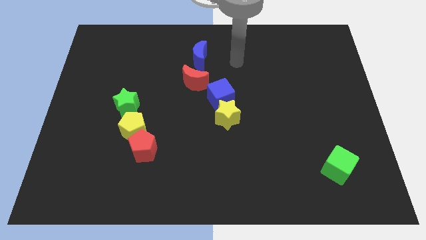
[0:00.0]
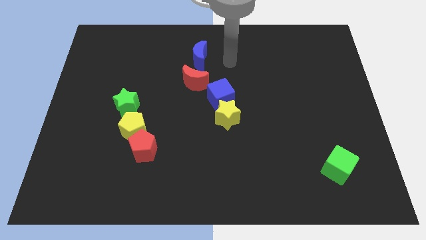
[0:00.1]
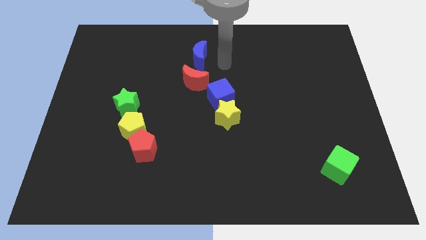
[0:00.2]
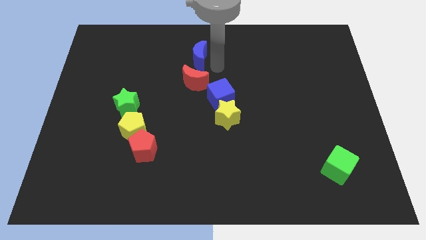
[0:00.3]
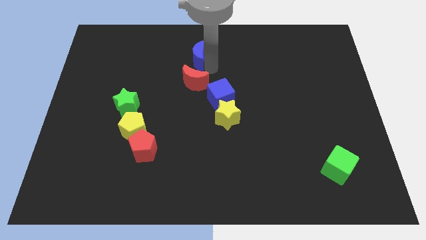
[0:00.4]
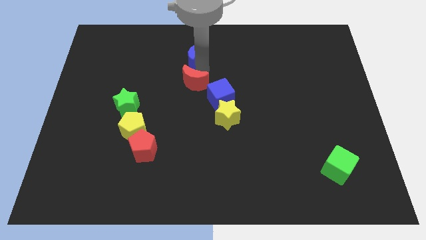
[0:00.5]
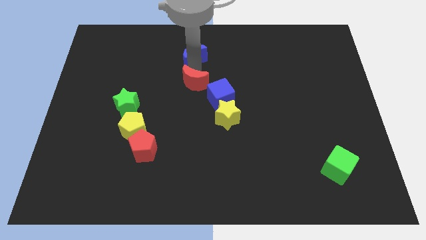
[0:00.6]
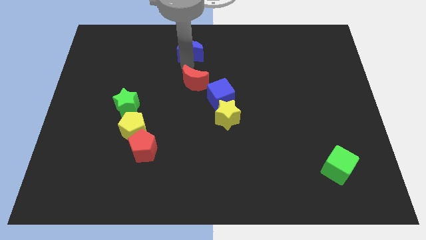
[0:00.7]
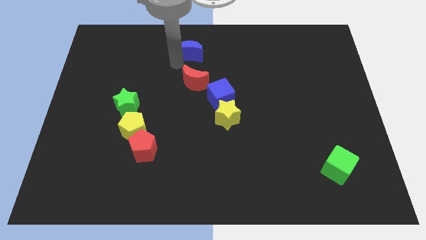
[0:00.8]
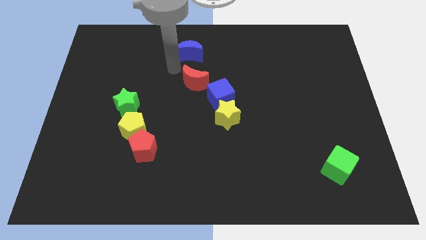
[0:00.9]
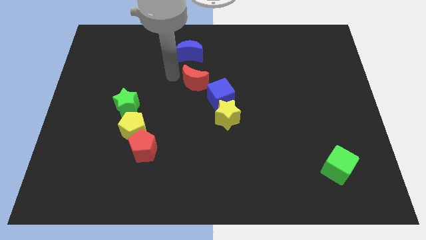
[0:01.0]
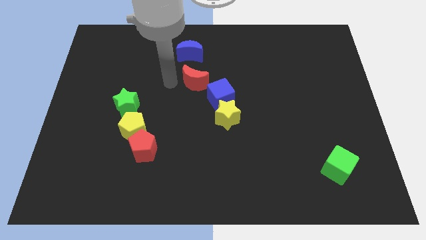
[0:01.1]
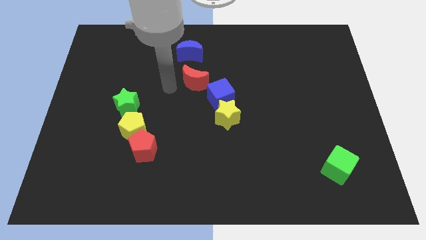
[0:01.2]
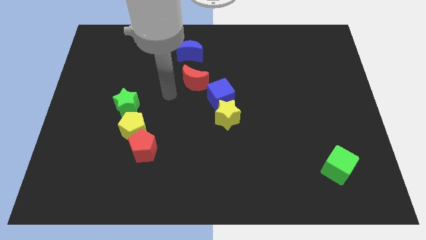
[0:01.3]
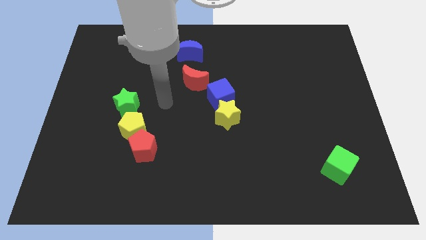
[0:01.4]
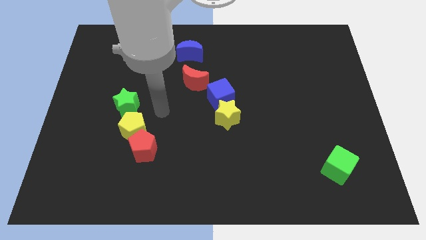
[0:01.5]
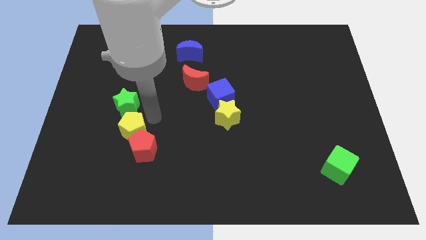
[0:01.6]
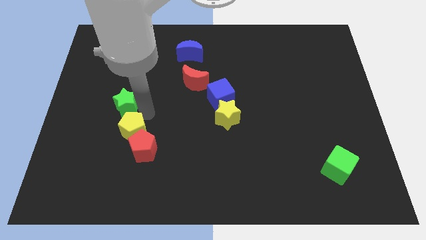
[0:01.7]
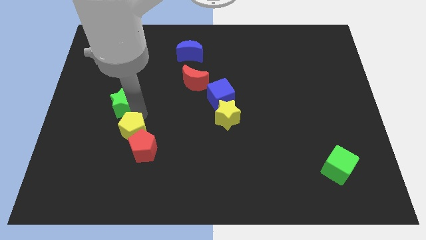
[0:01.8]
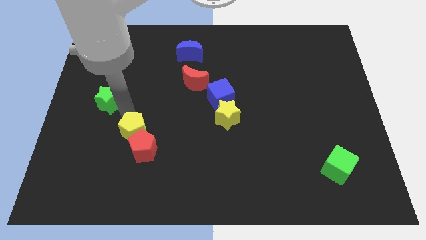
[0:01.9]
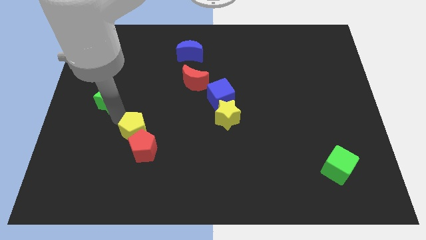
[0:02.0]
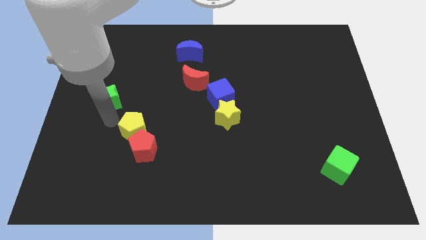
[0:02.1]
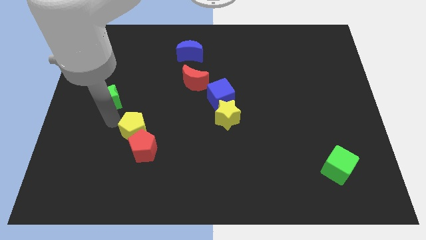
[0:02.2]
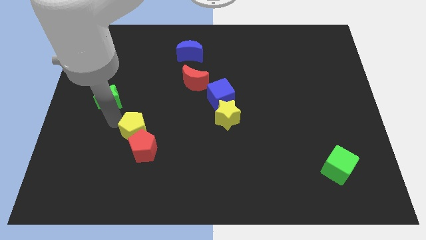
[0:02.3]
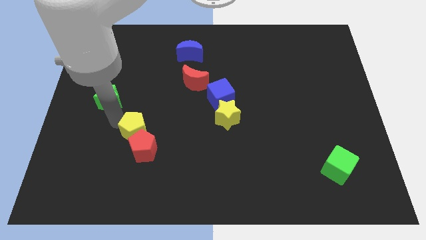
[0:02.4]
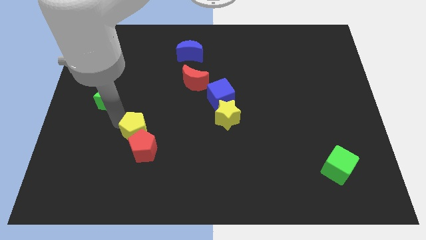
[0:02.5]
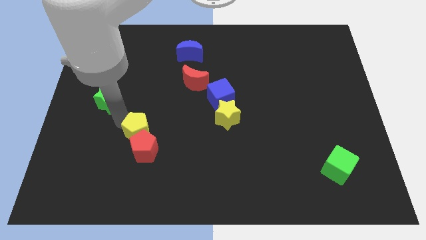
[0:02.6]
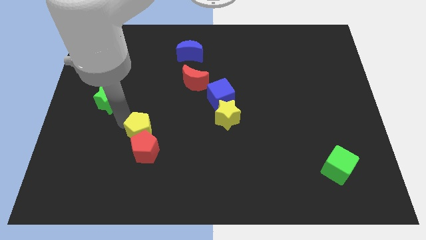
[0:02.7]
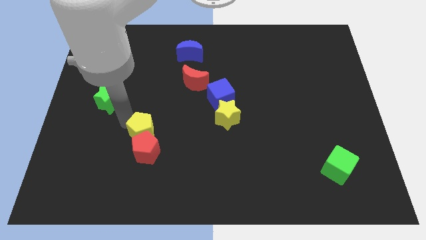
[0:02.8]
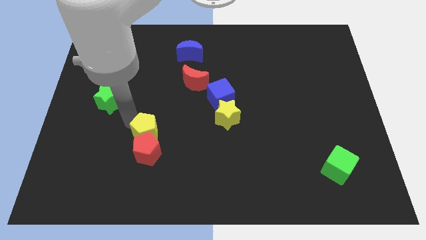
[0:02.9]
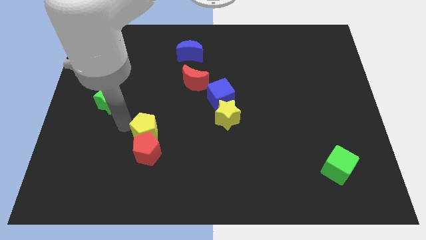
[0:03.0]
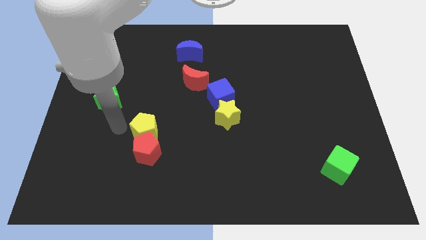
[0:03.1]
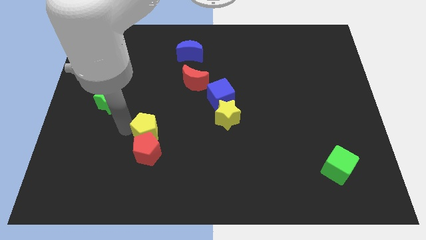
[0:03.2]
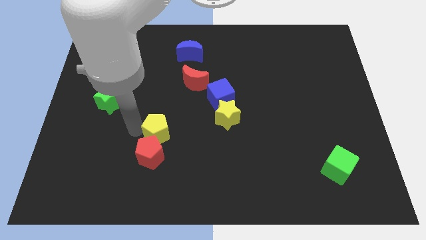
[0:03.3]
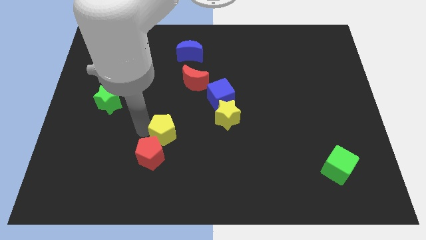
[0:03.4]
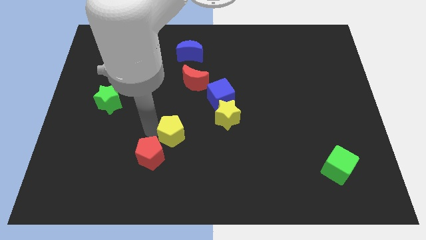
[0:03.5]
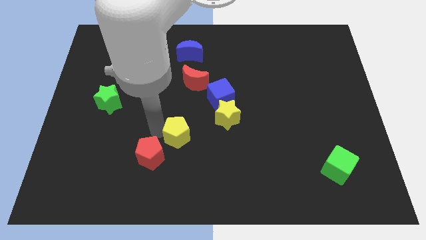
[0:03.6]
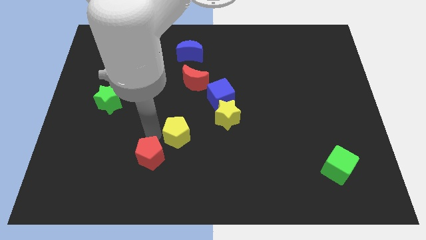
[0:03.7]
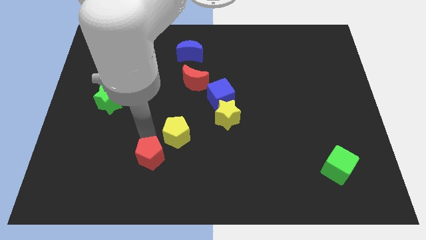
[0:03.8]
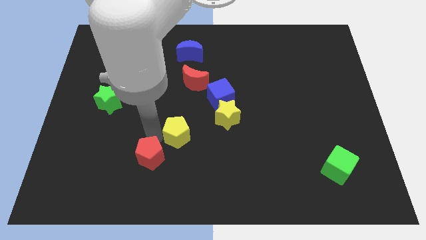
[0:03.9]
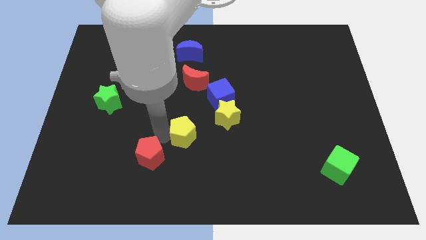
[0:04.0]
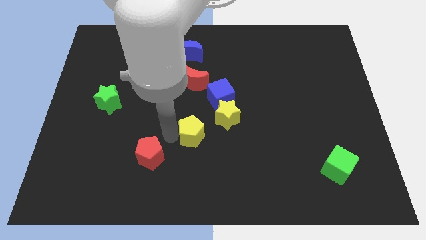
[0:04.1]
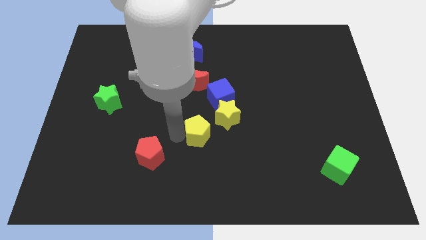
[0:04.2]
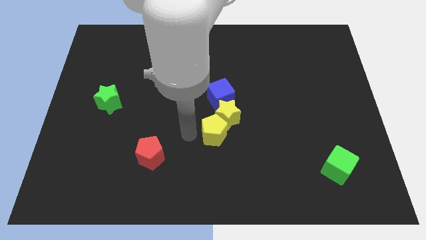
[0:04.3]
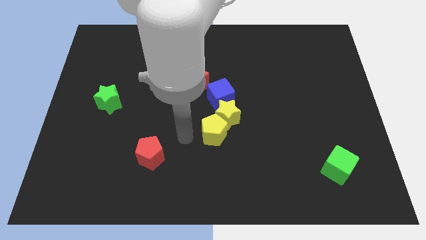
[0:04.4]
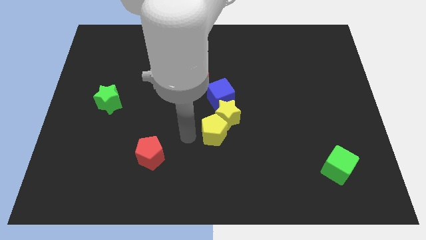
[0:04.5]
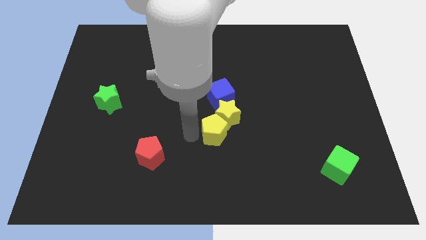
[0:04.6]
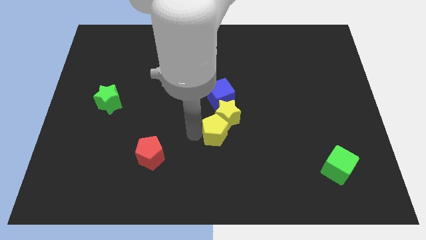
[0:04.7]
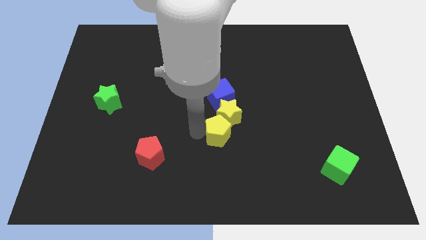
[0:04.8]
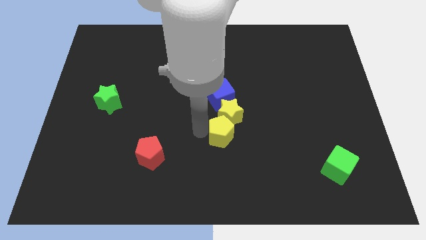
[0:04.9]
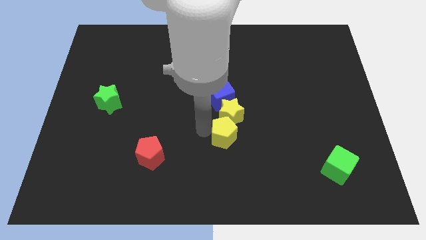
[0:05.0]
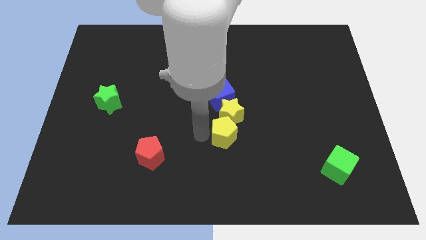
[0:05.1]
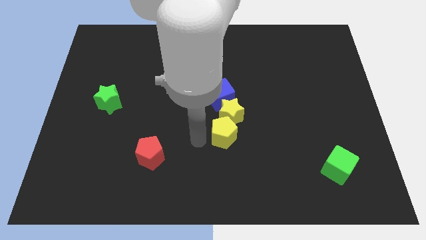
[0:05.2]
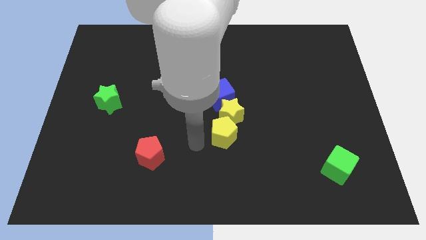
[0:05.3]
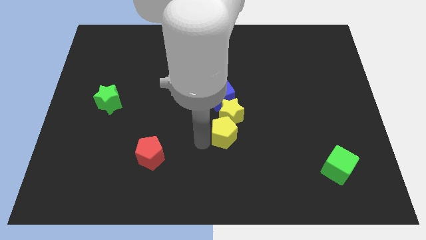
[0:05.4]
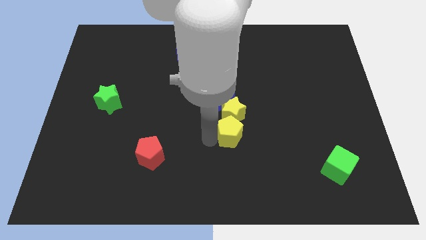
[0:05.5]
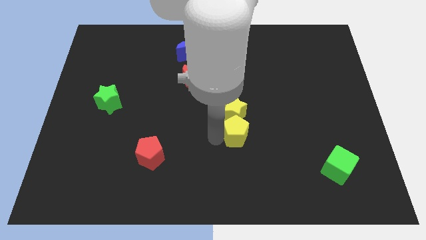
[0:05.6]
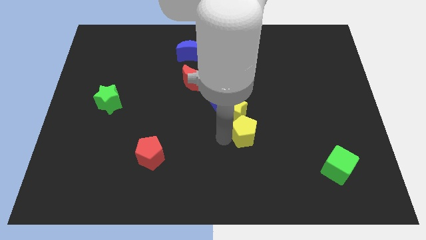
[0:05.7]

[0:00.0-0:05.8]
push the yellow pentagon diagonally down and to the right of the blue cube

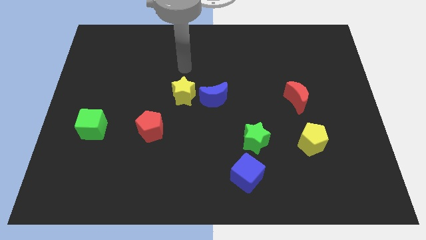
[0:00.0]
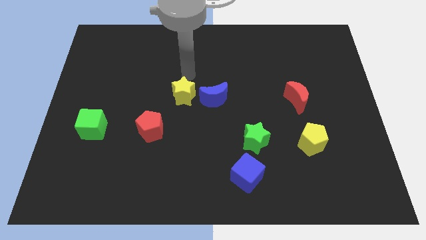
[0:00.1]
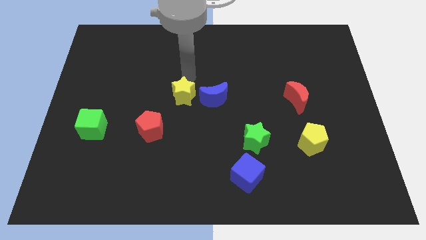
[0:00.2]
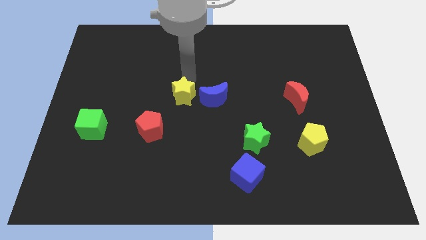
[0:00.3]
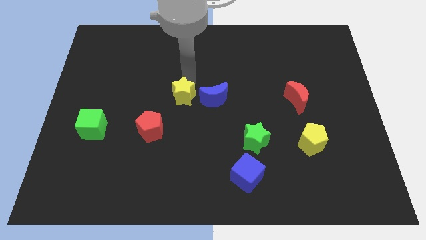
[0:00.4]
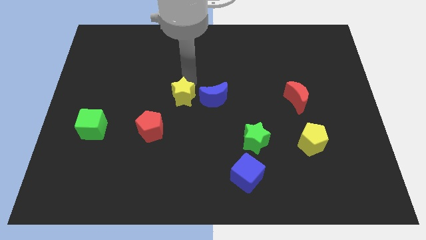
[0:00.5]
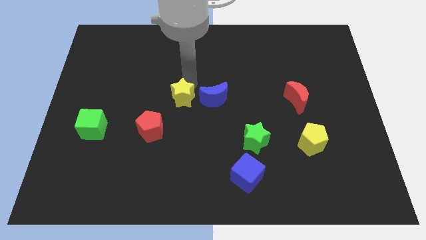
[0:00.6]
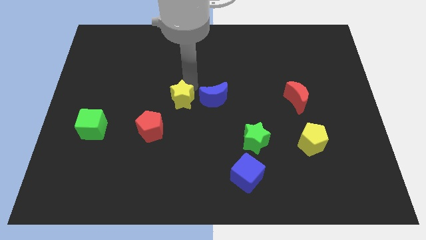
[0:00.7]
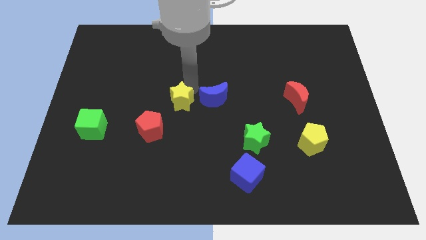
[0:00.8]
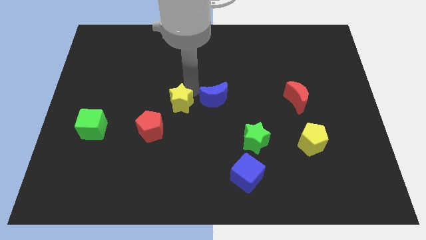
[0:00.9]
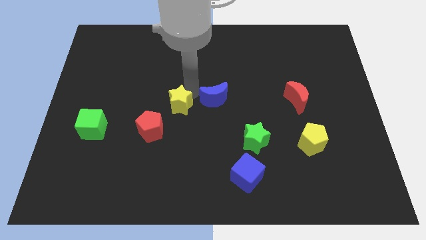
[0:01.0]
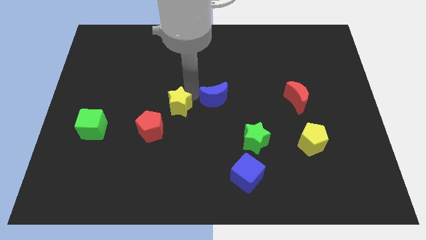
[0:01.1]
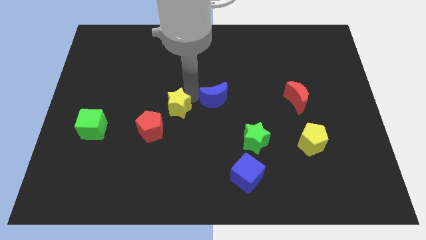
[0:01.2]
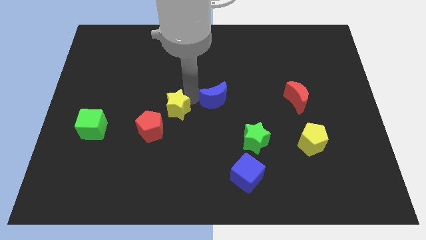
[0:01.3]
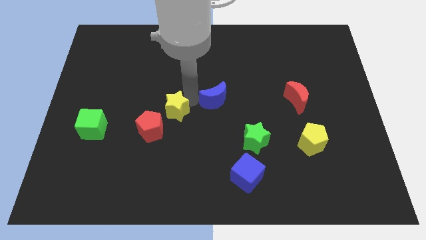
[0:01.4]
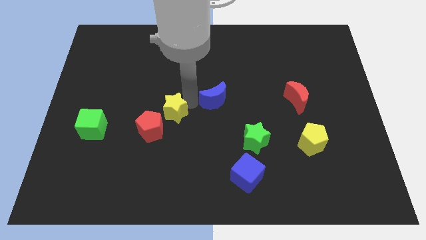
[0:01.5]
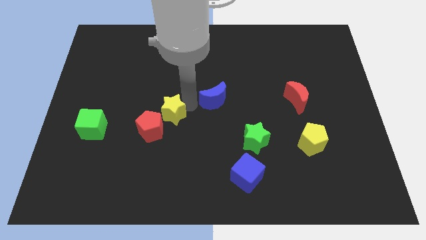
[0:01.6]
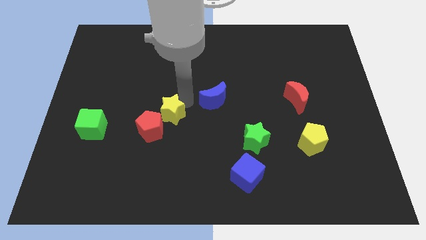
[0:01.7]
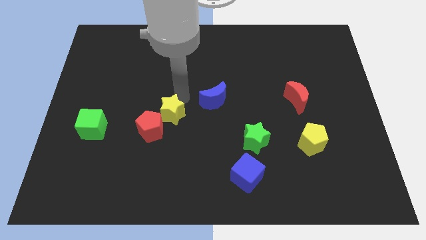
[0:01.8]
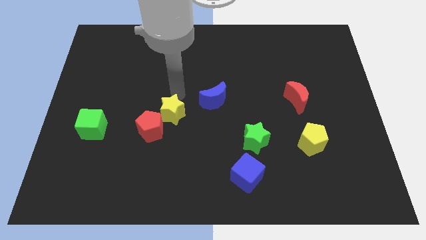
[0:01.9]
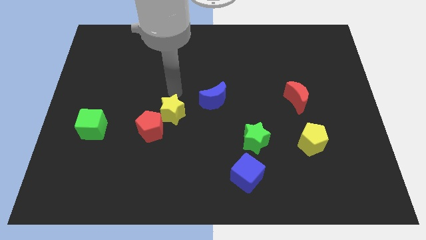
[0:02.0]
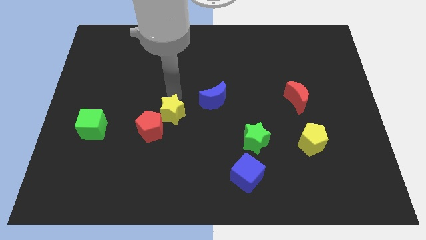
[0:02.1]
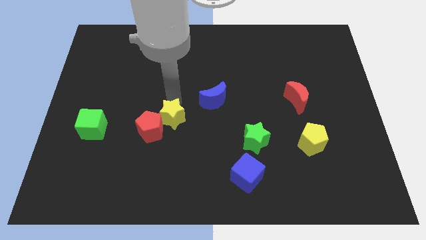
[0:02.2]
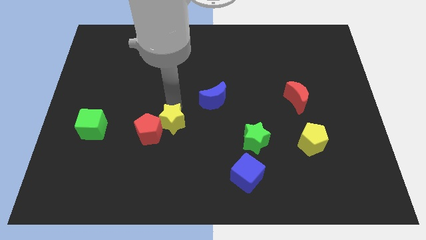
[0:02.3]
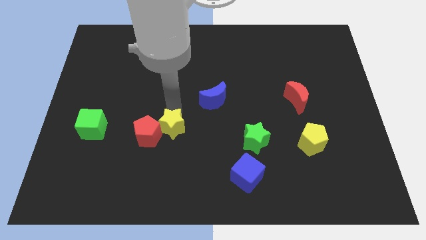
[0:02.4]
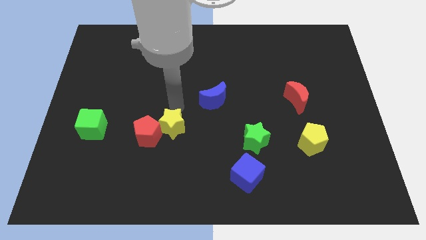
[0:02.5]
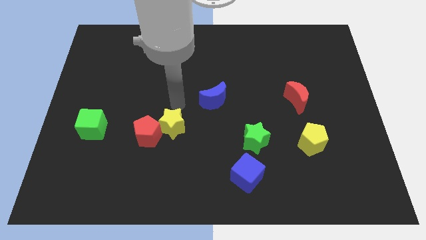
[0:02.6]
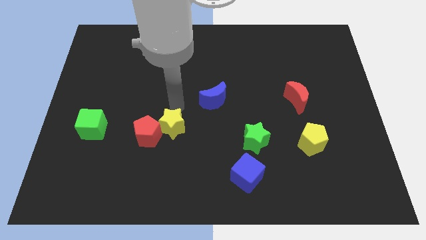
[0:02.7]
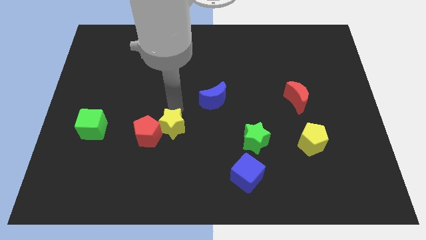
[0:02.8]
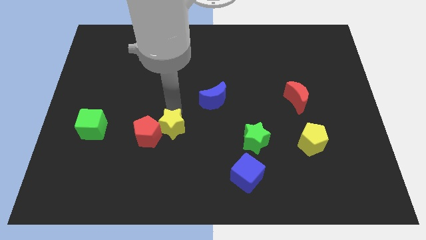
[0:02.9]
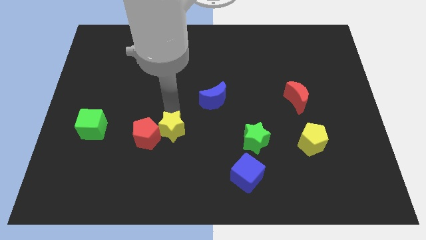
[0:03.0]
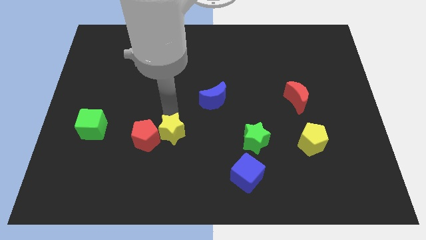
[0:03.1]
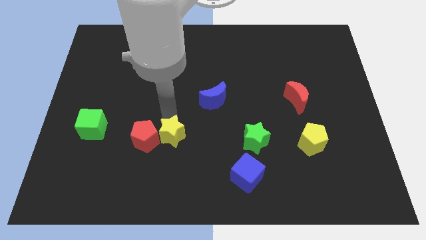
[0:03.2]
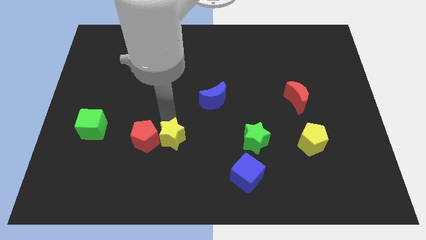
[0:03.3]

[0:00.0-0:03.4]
put the yellow star to the bottom right of the red pentagon
